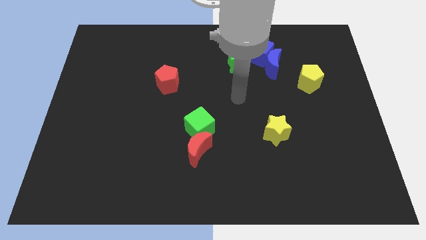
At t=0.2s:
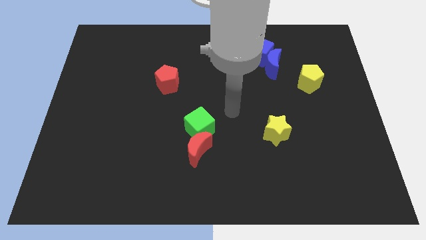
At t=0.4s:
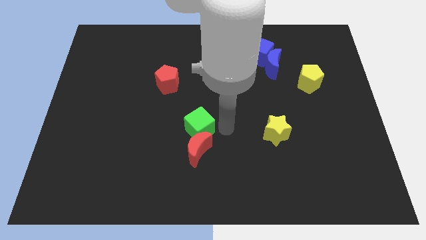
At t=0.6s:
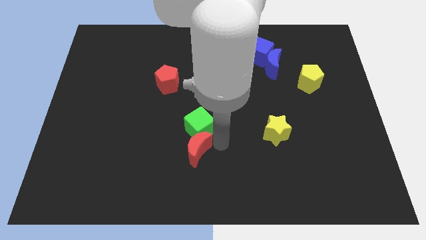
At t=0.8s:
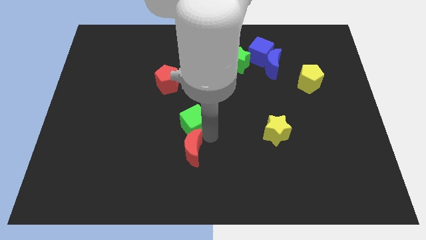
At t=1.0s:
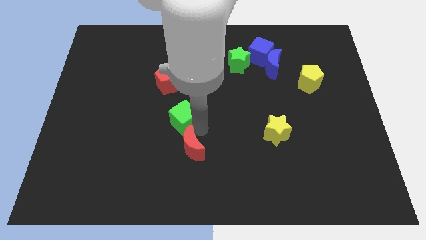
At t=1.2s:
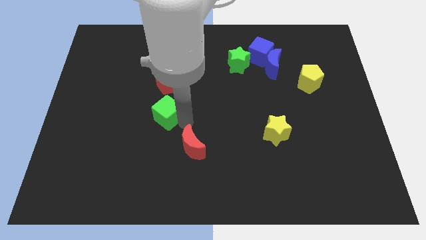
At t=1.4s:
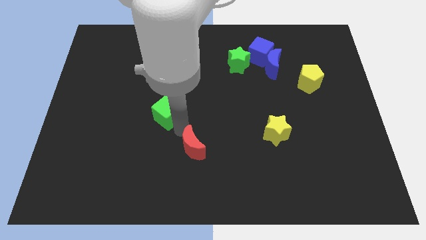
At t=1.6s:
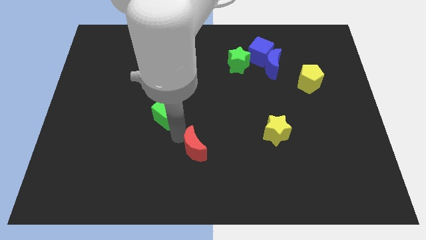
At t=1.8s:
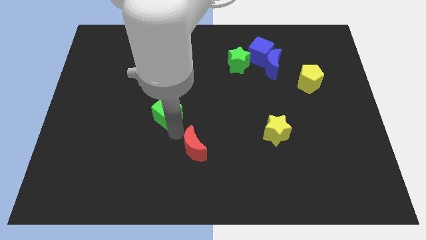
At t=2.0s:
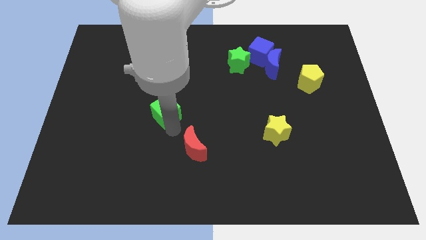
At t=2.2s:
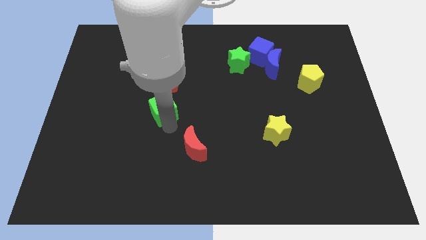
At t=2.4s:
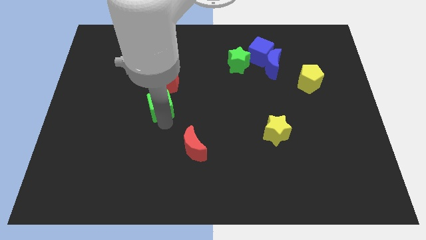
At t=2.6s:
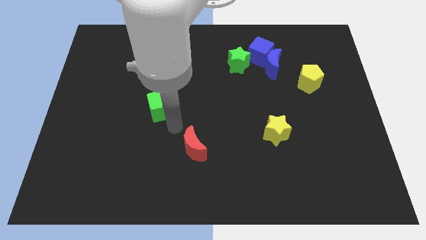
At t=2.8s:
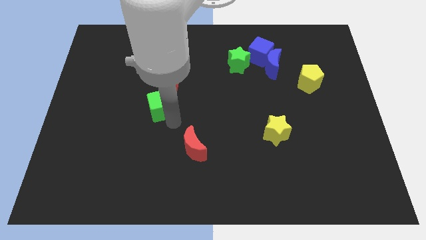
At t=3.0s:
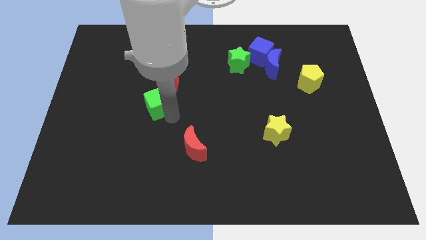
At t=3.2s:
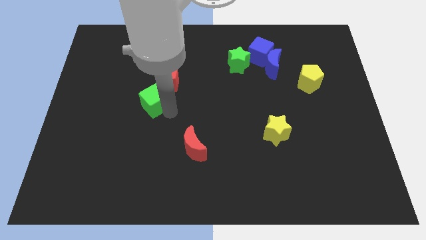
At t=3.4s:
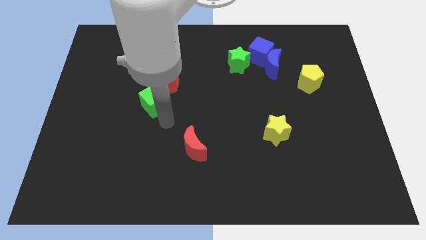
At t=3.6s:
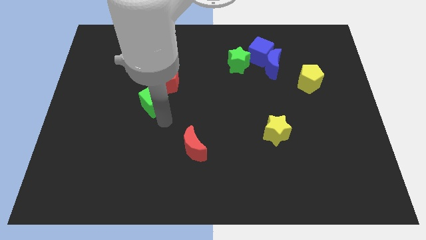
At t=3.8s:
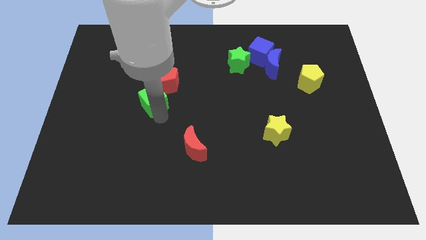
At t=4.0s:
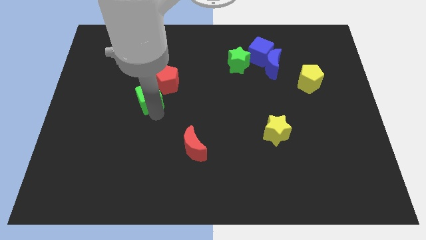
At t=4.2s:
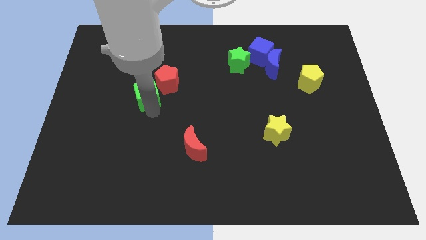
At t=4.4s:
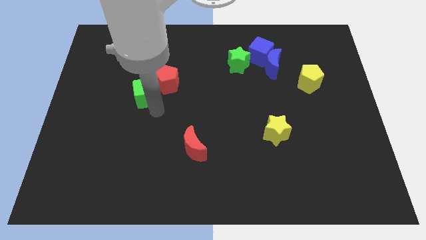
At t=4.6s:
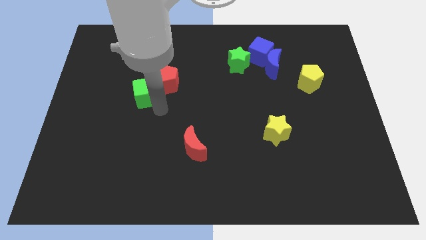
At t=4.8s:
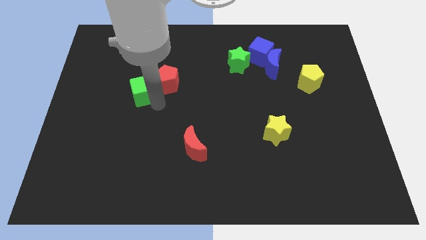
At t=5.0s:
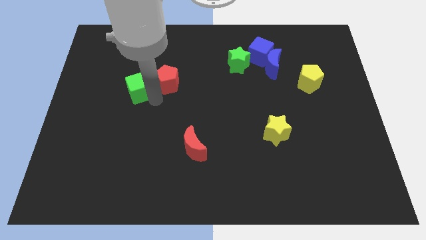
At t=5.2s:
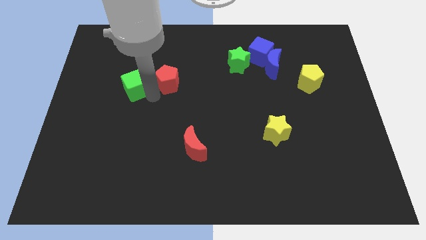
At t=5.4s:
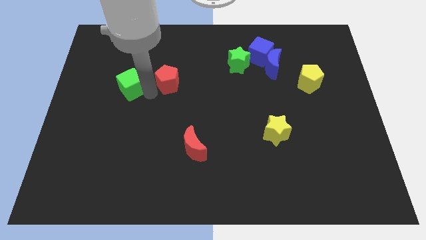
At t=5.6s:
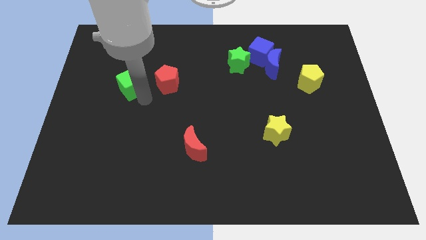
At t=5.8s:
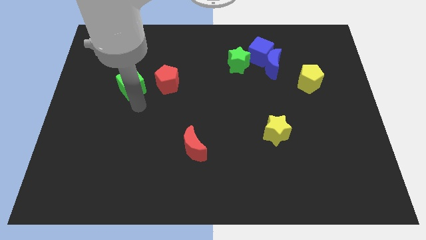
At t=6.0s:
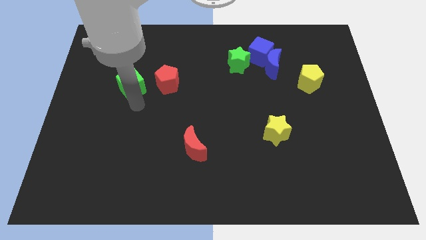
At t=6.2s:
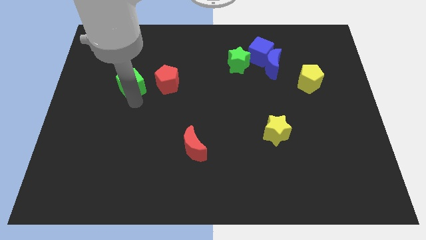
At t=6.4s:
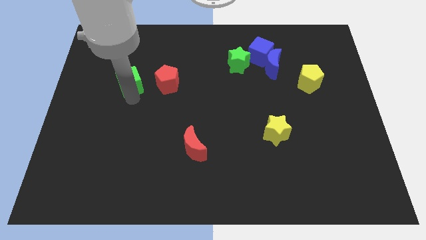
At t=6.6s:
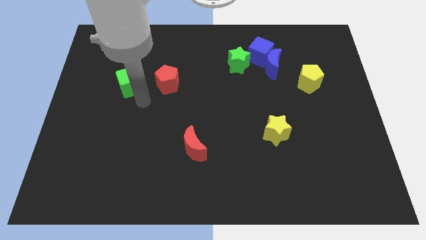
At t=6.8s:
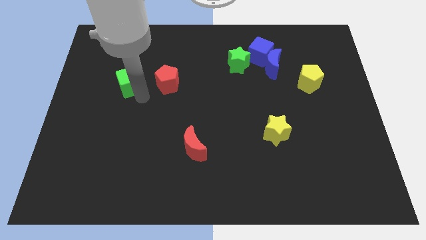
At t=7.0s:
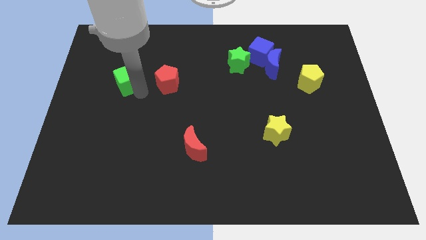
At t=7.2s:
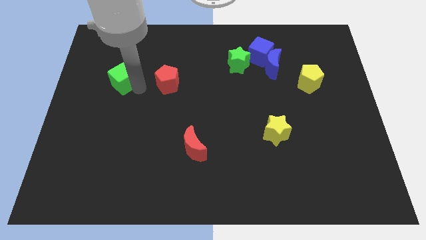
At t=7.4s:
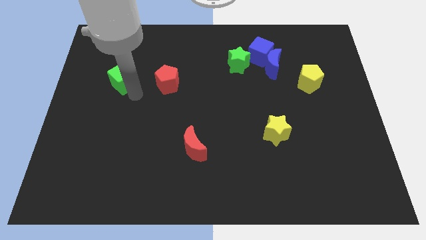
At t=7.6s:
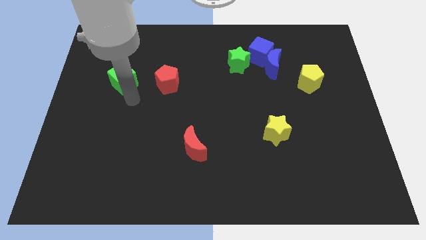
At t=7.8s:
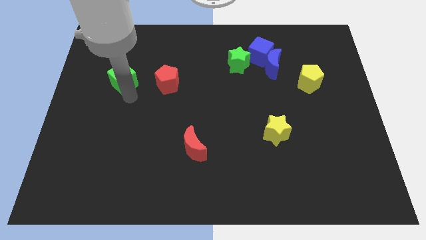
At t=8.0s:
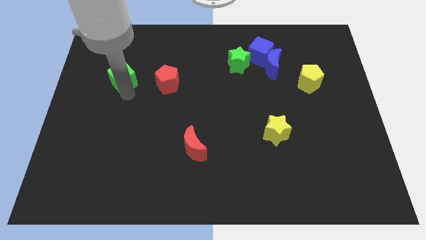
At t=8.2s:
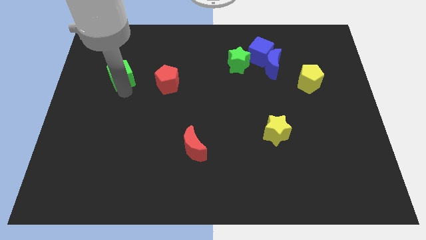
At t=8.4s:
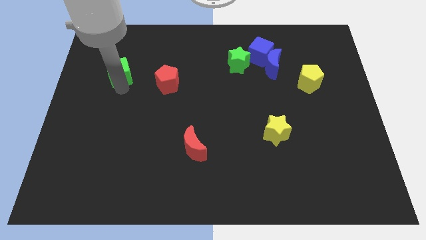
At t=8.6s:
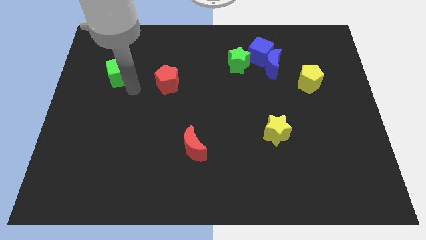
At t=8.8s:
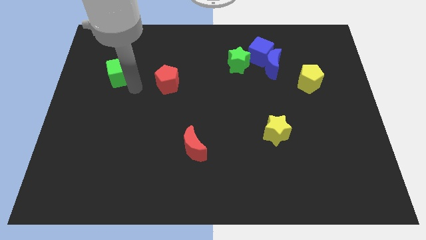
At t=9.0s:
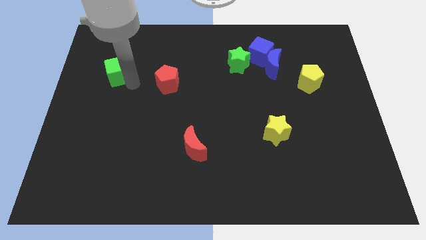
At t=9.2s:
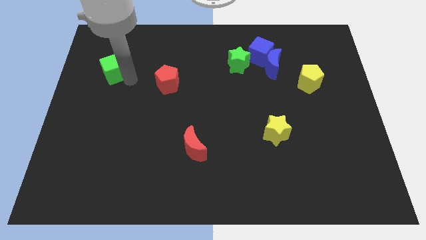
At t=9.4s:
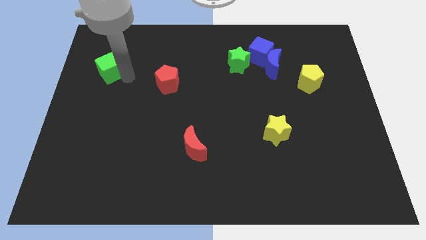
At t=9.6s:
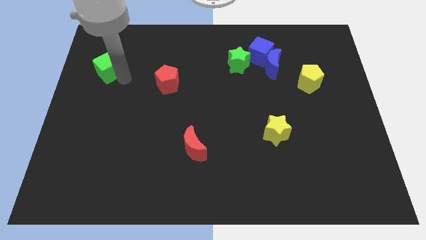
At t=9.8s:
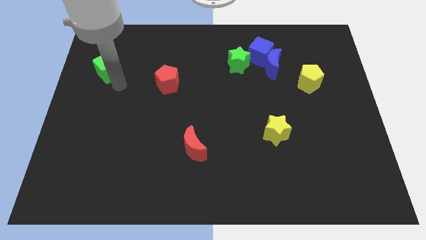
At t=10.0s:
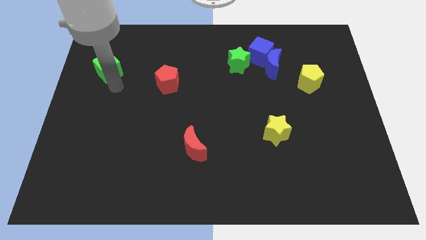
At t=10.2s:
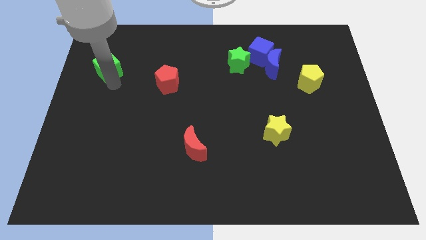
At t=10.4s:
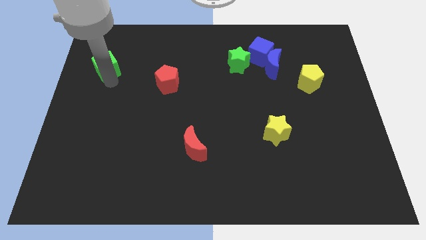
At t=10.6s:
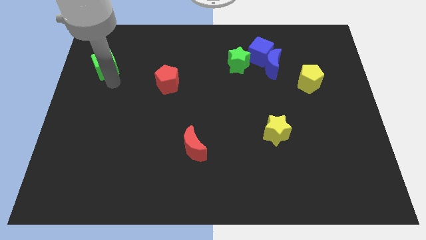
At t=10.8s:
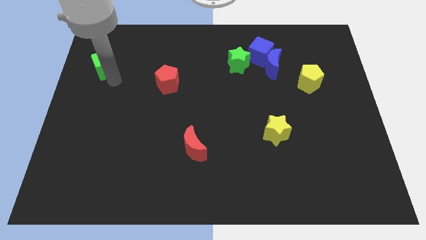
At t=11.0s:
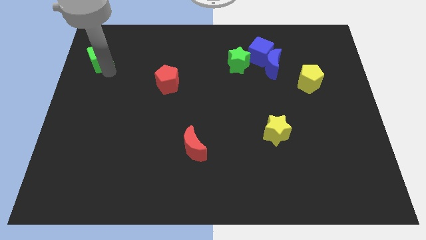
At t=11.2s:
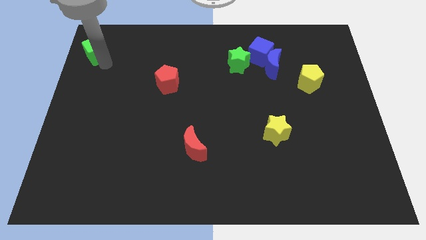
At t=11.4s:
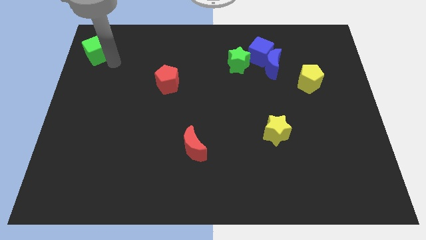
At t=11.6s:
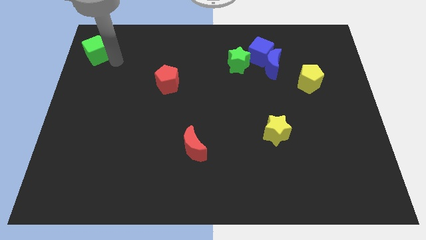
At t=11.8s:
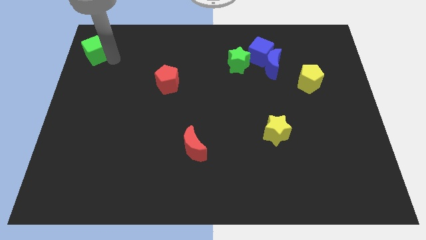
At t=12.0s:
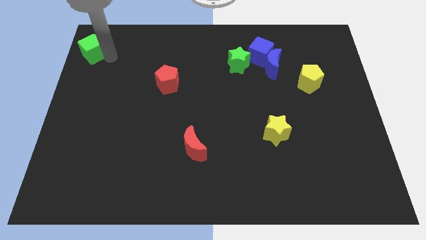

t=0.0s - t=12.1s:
push the green cube to the top left
